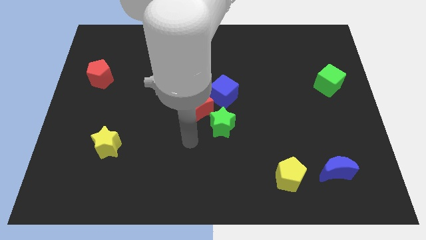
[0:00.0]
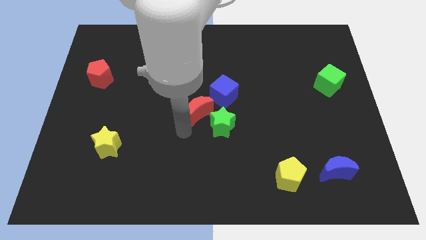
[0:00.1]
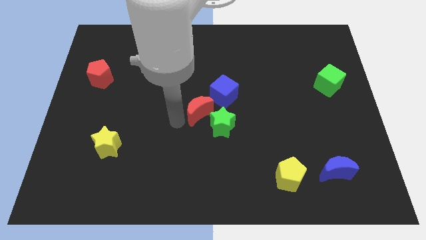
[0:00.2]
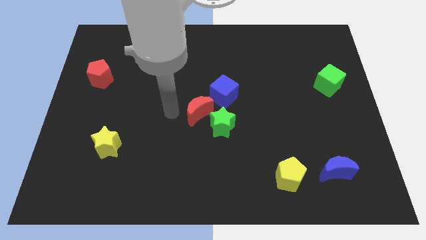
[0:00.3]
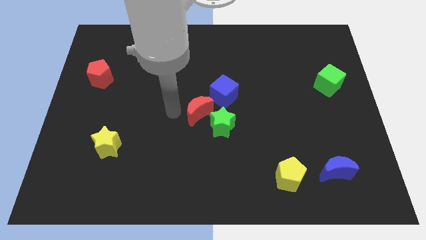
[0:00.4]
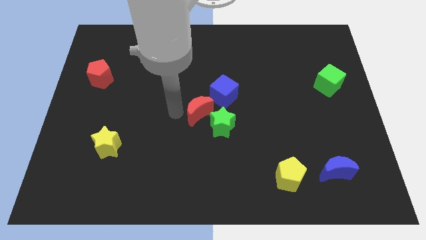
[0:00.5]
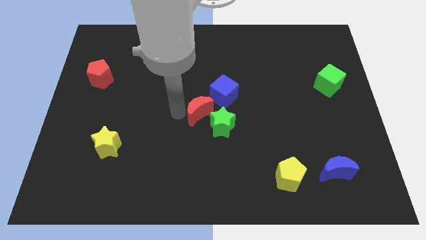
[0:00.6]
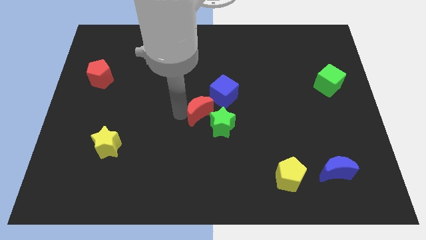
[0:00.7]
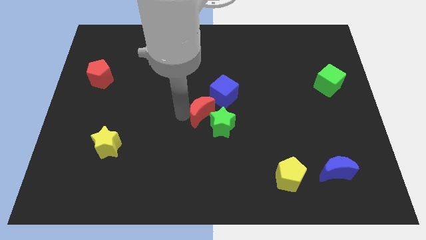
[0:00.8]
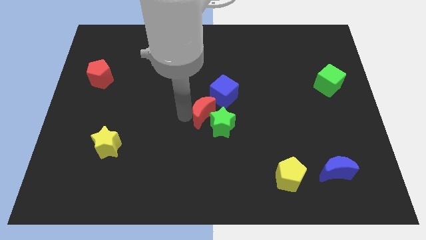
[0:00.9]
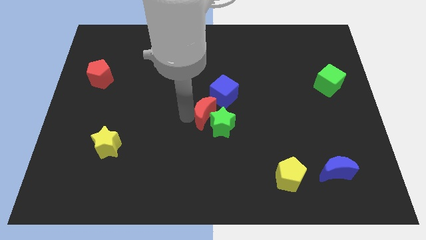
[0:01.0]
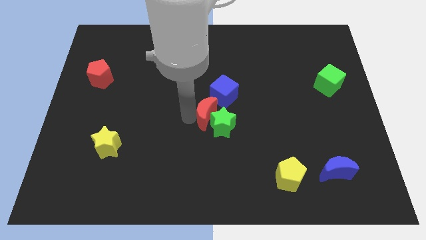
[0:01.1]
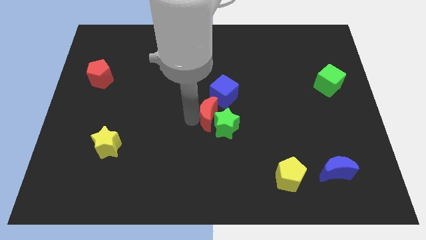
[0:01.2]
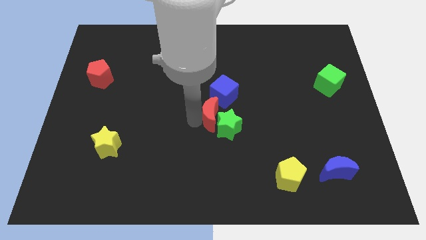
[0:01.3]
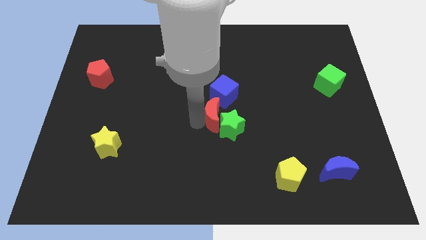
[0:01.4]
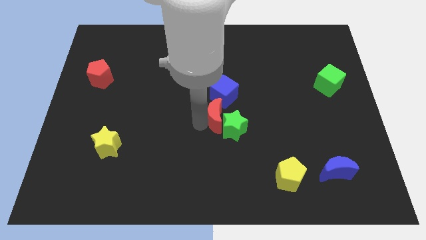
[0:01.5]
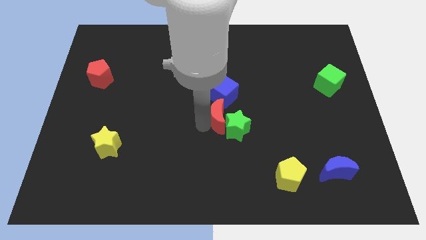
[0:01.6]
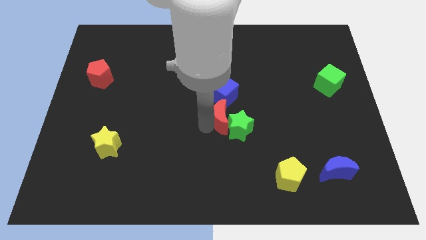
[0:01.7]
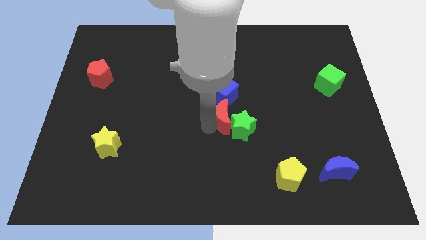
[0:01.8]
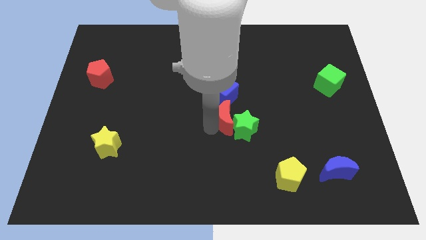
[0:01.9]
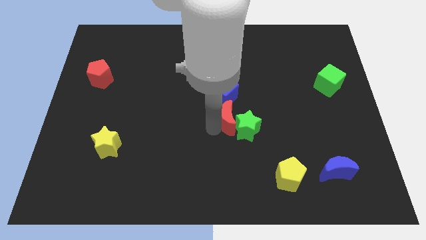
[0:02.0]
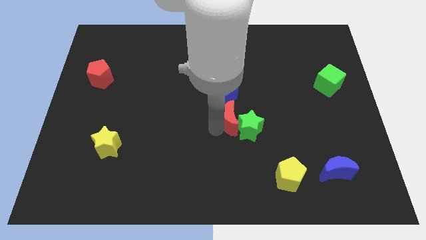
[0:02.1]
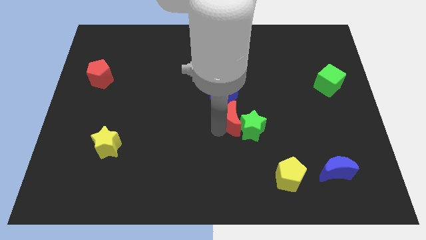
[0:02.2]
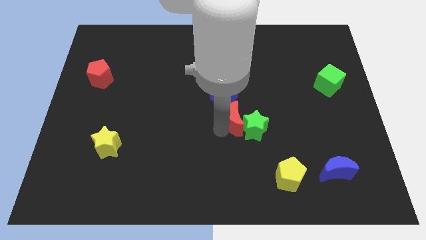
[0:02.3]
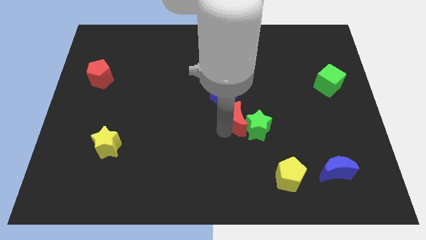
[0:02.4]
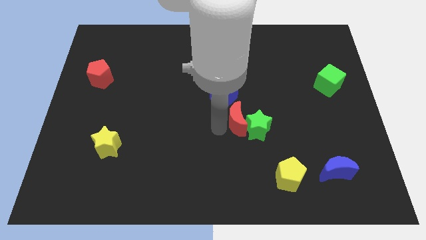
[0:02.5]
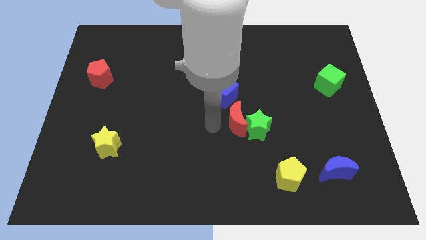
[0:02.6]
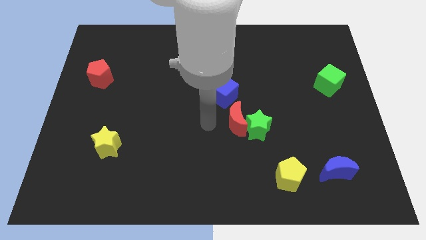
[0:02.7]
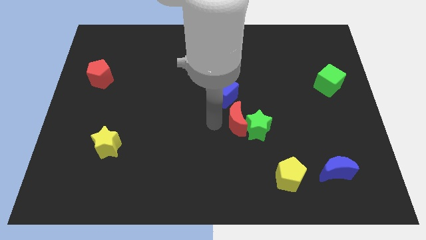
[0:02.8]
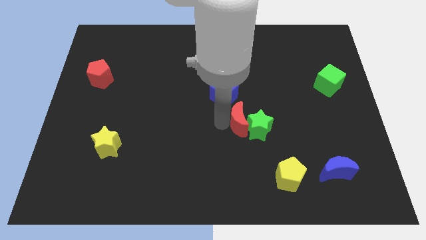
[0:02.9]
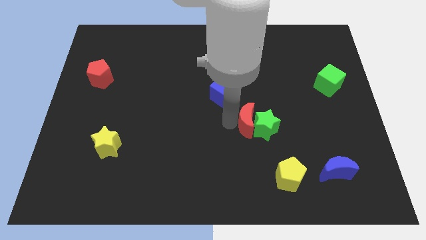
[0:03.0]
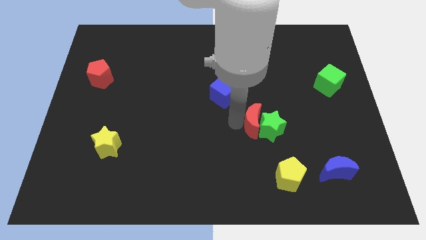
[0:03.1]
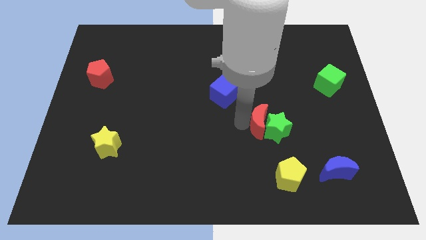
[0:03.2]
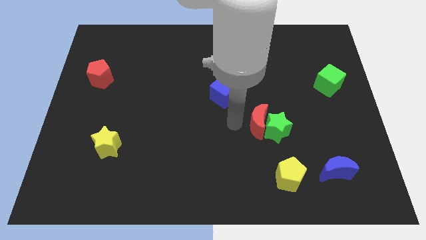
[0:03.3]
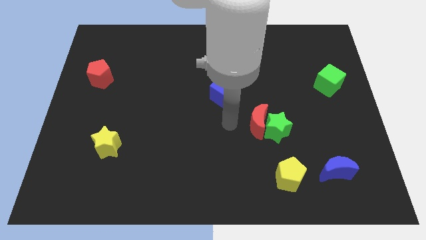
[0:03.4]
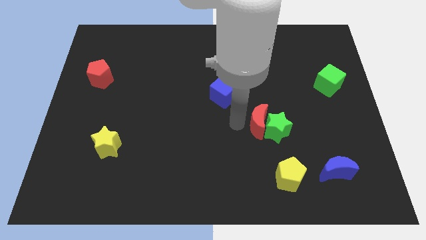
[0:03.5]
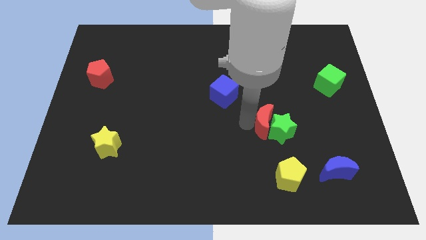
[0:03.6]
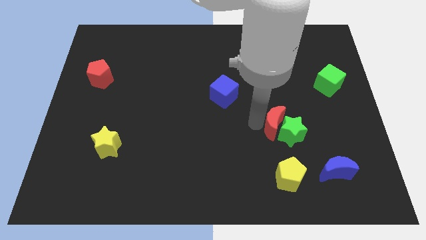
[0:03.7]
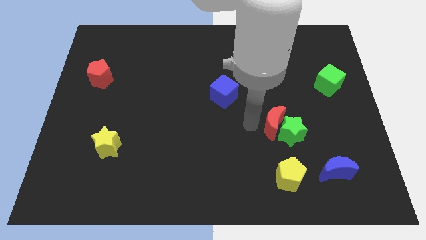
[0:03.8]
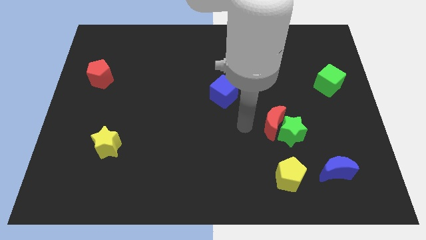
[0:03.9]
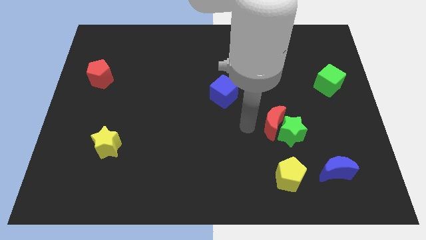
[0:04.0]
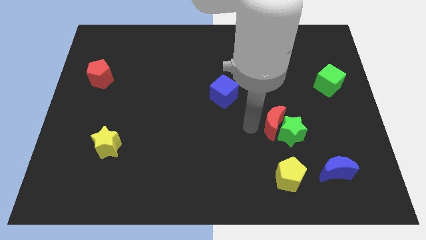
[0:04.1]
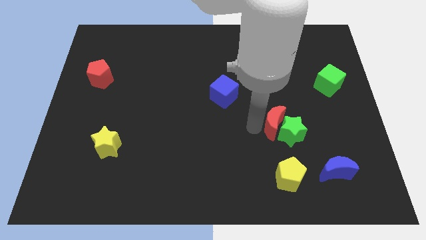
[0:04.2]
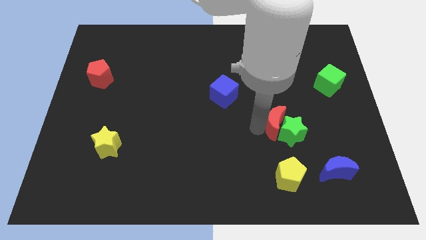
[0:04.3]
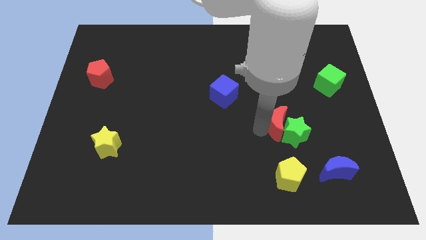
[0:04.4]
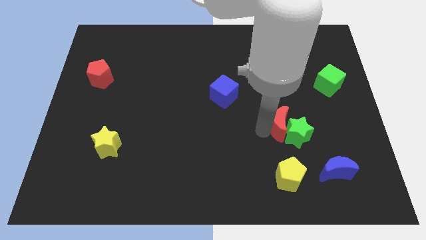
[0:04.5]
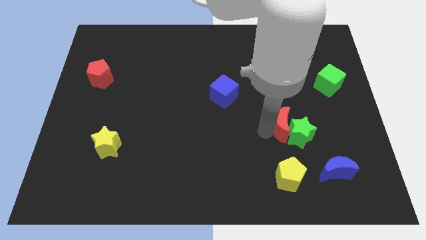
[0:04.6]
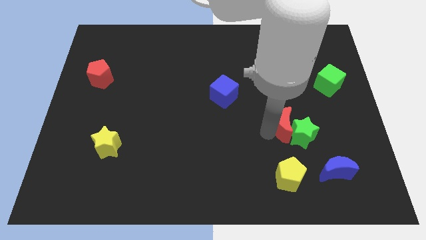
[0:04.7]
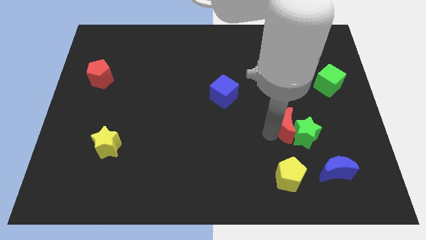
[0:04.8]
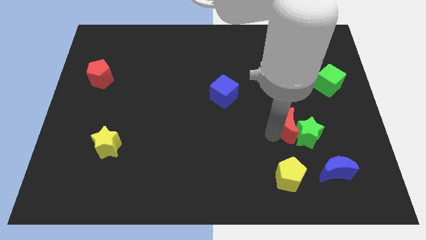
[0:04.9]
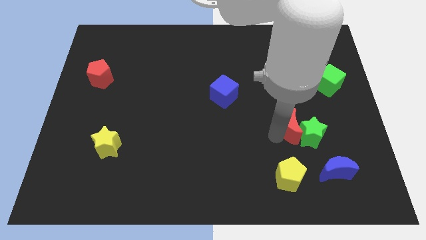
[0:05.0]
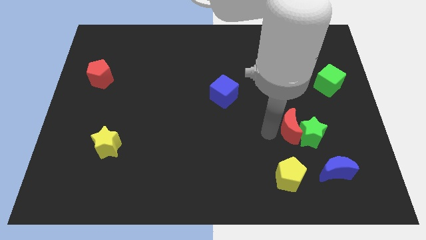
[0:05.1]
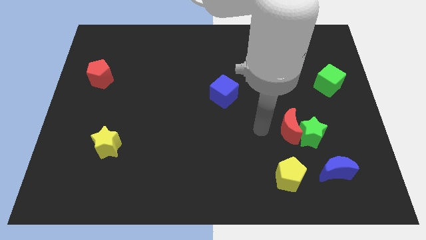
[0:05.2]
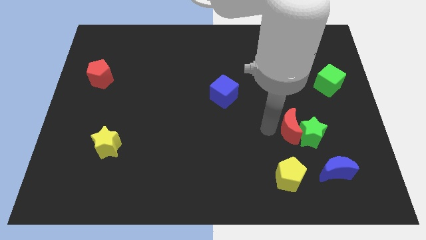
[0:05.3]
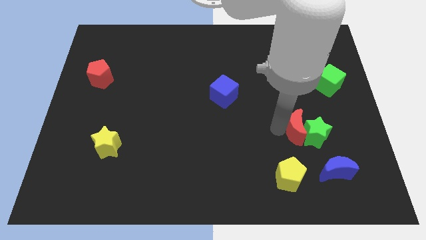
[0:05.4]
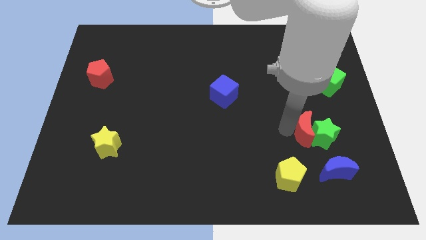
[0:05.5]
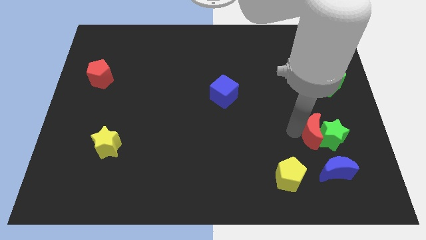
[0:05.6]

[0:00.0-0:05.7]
push the red moon above the blue moon

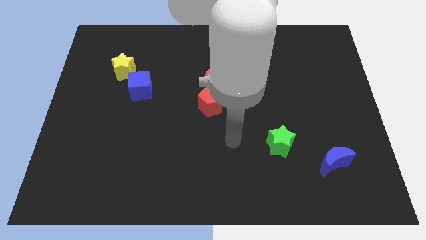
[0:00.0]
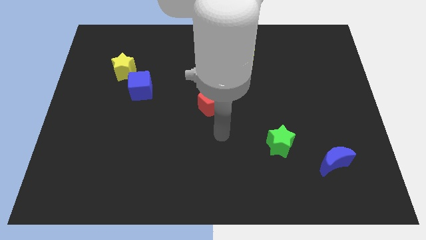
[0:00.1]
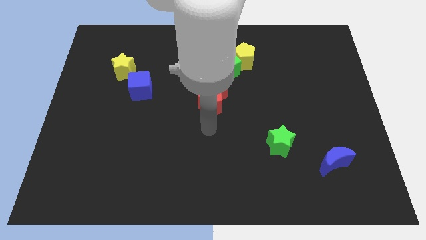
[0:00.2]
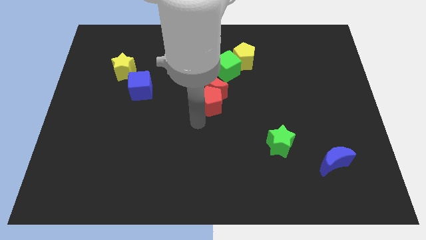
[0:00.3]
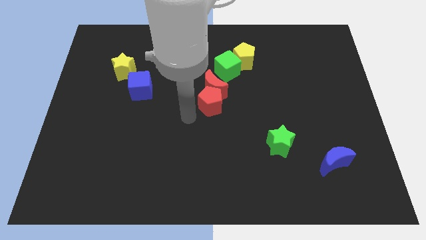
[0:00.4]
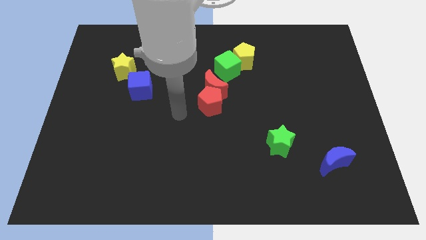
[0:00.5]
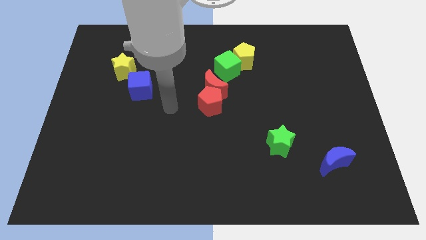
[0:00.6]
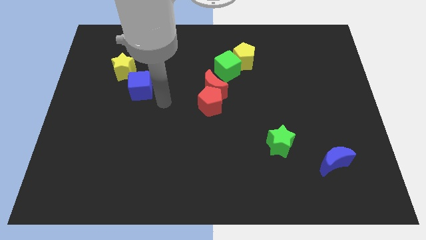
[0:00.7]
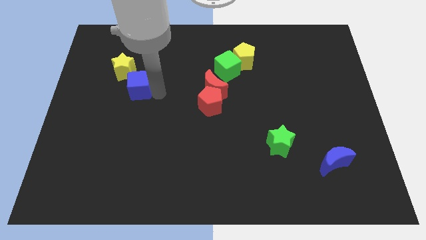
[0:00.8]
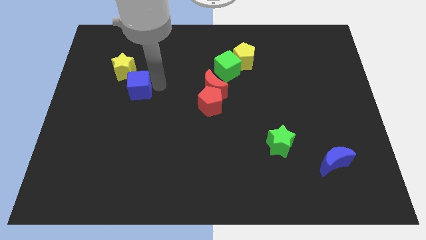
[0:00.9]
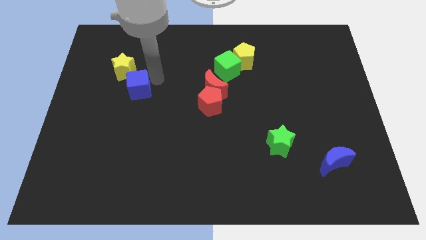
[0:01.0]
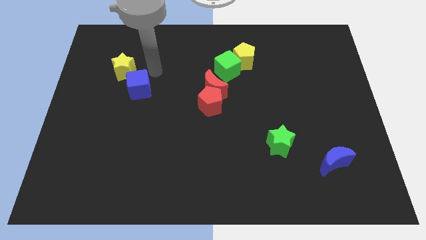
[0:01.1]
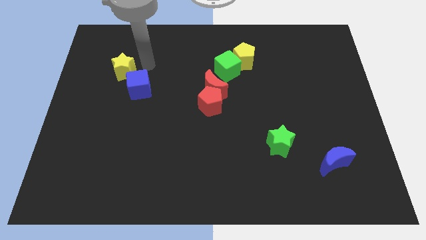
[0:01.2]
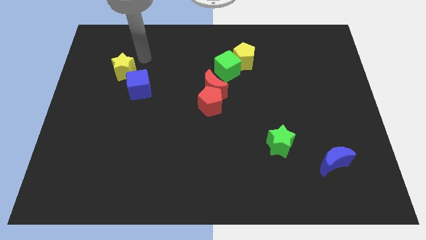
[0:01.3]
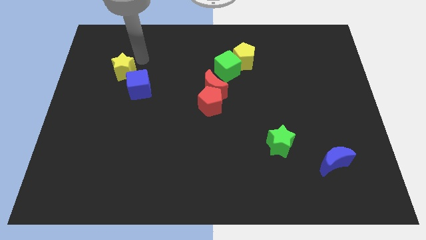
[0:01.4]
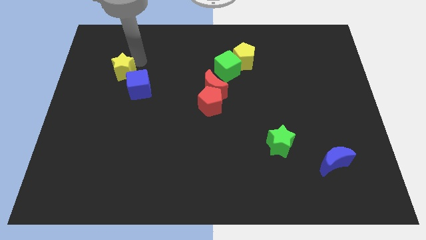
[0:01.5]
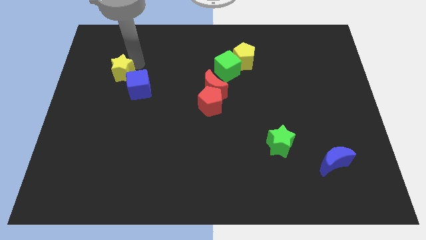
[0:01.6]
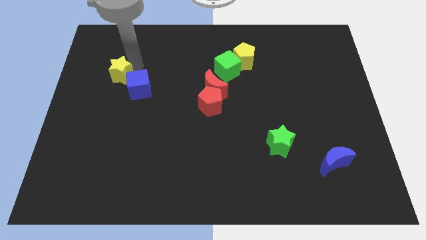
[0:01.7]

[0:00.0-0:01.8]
put the yellow star just left of the blue cube
